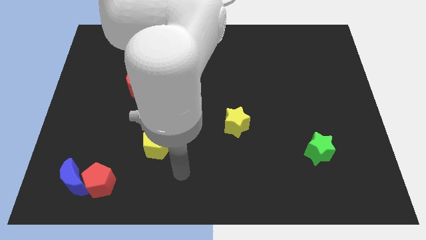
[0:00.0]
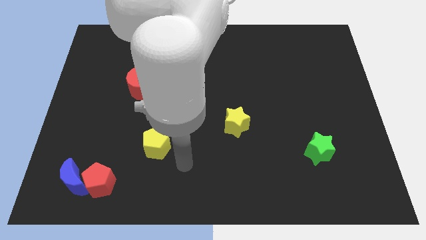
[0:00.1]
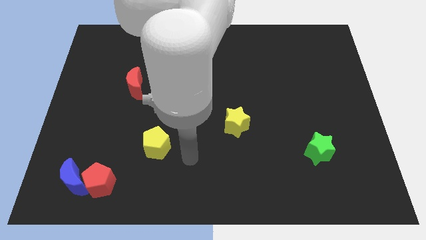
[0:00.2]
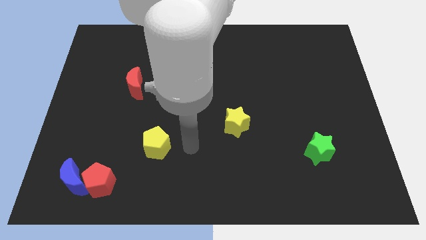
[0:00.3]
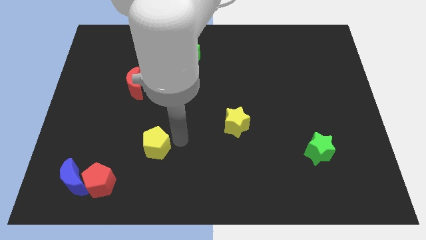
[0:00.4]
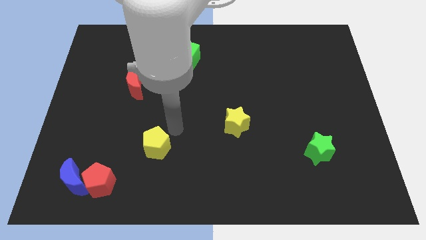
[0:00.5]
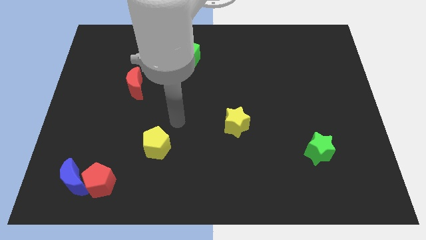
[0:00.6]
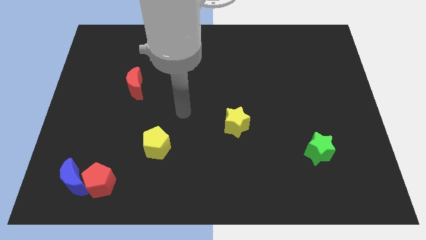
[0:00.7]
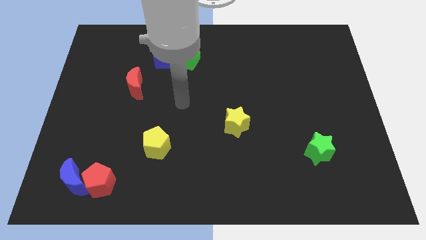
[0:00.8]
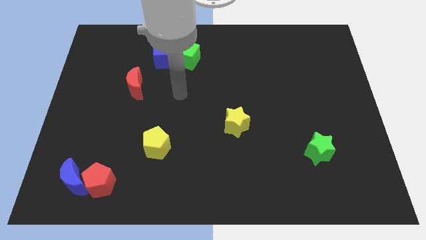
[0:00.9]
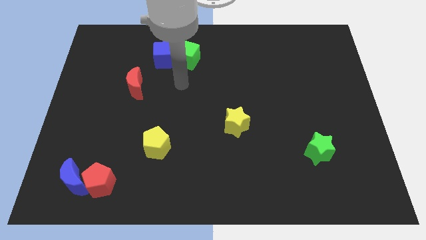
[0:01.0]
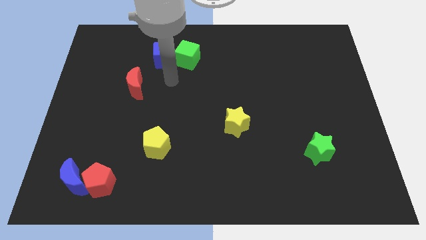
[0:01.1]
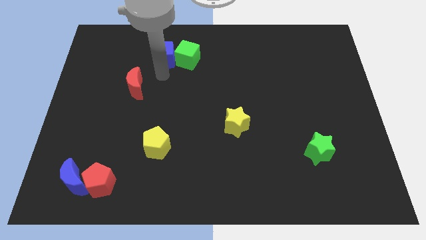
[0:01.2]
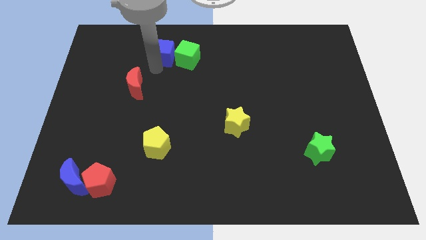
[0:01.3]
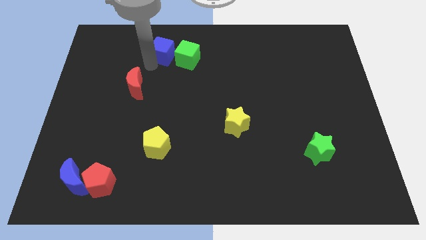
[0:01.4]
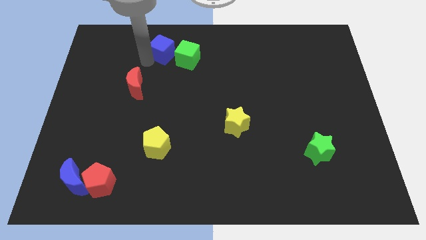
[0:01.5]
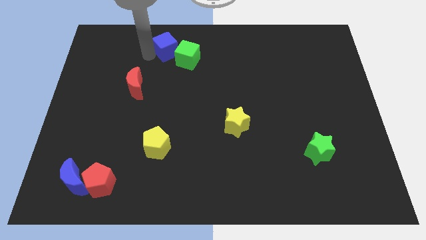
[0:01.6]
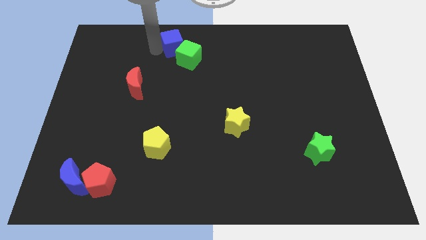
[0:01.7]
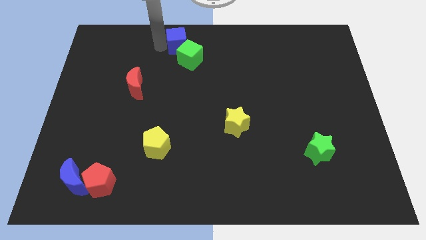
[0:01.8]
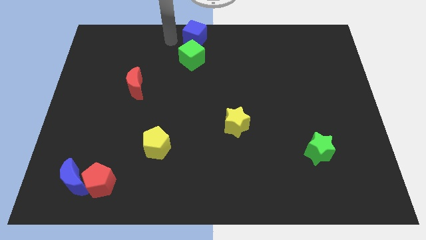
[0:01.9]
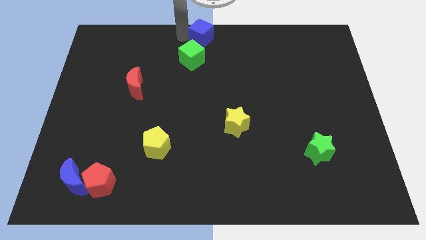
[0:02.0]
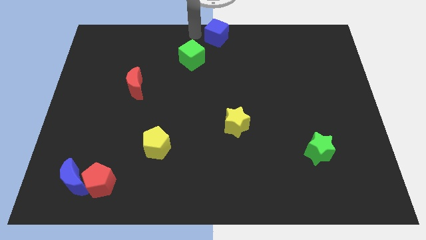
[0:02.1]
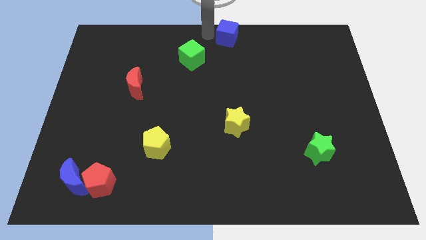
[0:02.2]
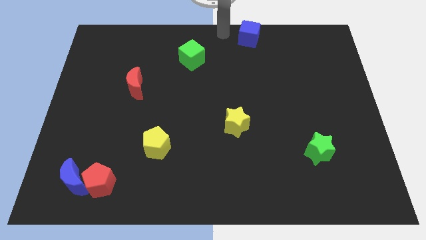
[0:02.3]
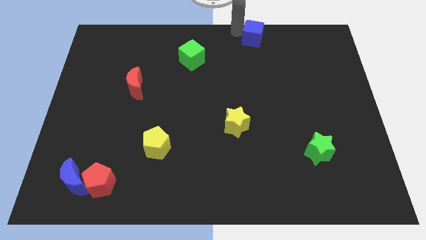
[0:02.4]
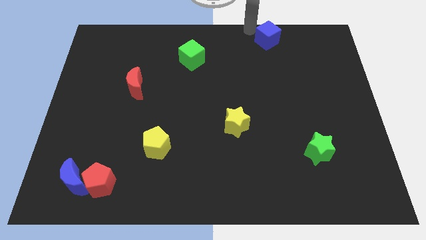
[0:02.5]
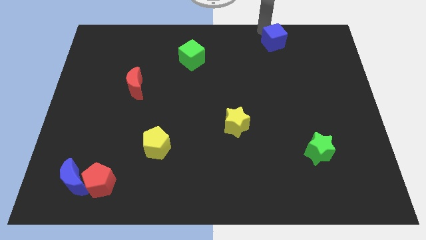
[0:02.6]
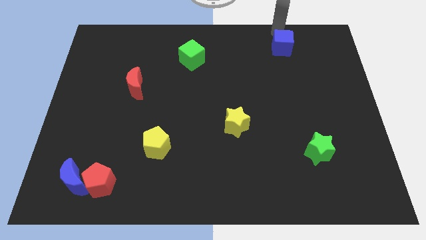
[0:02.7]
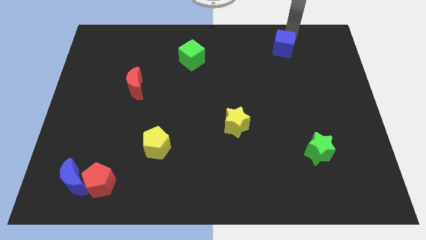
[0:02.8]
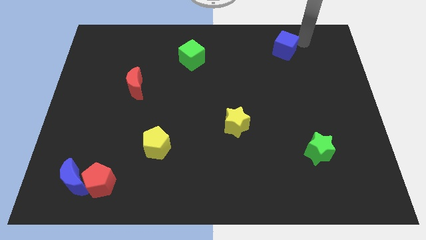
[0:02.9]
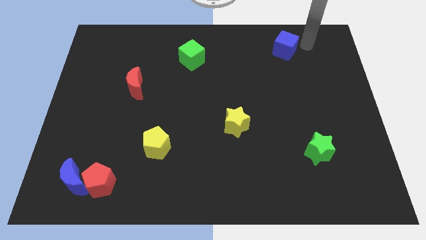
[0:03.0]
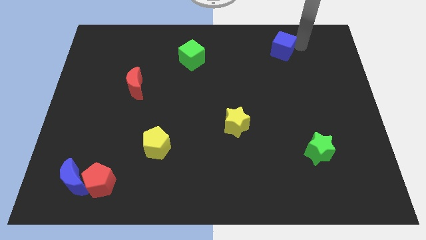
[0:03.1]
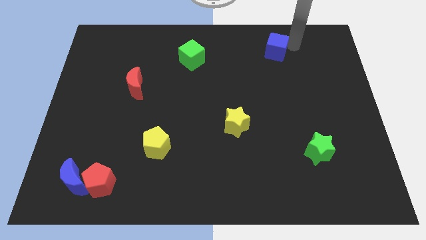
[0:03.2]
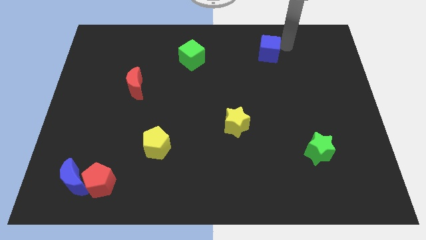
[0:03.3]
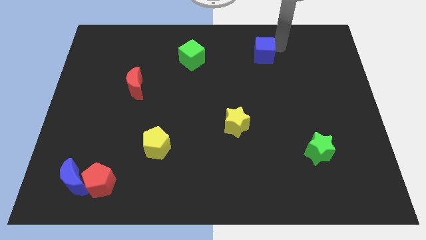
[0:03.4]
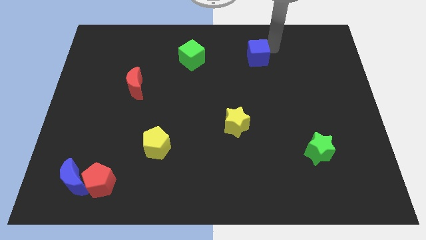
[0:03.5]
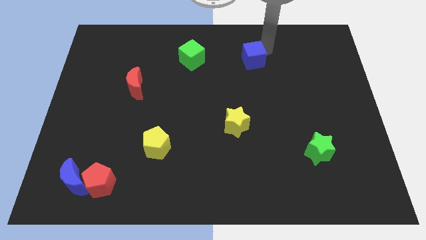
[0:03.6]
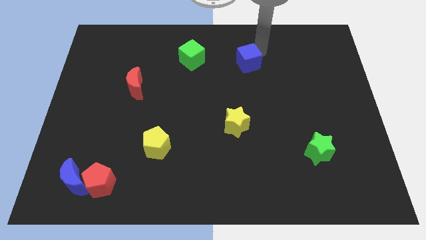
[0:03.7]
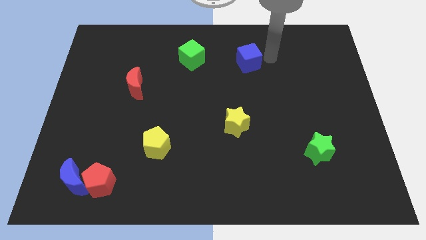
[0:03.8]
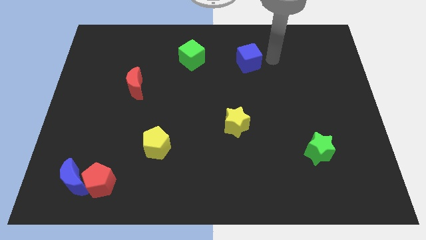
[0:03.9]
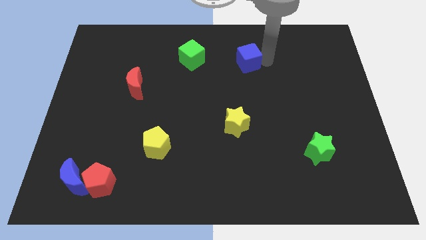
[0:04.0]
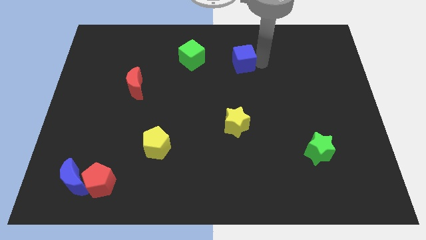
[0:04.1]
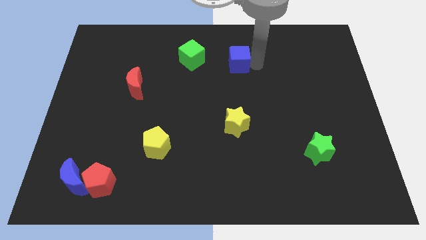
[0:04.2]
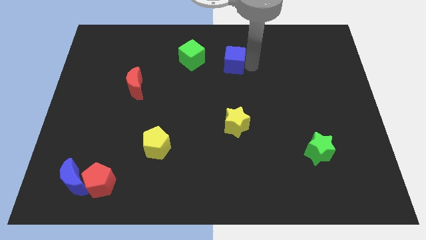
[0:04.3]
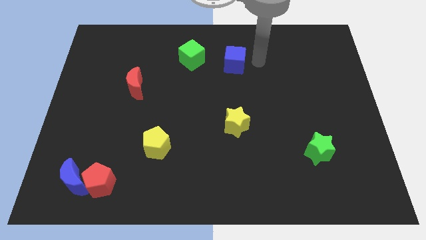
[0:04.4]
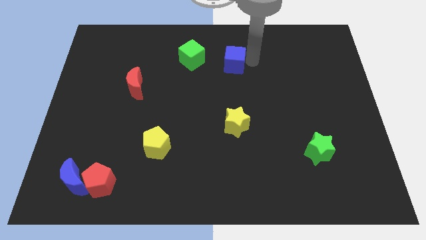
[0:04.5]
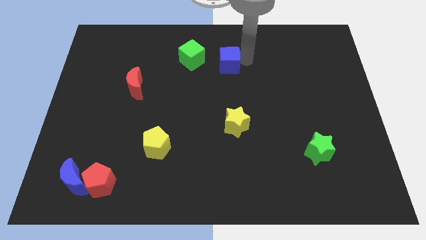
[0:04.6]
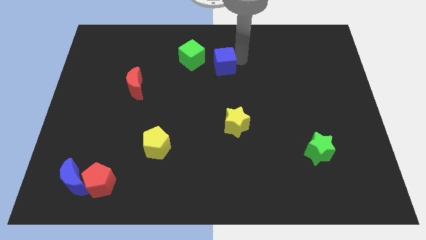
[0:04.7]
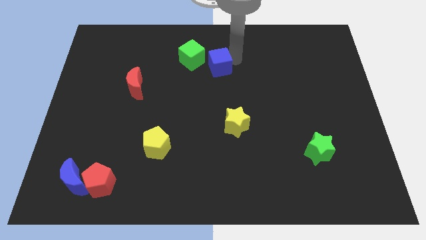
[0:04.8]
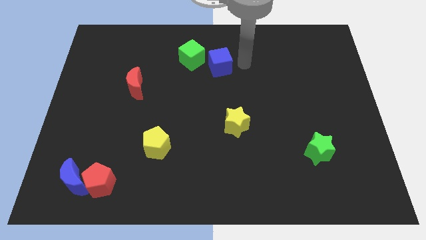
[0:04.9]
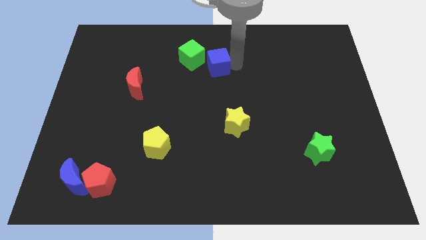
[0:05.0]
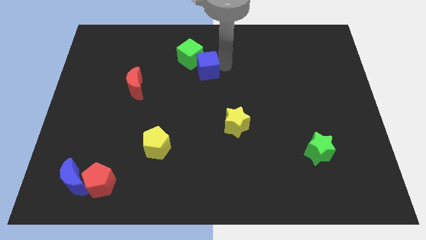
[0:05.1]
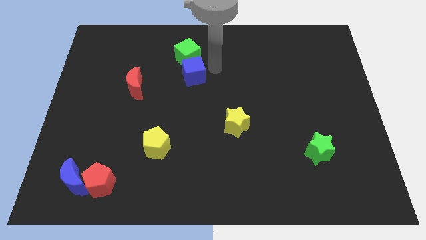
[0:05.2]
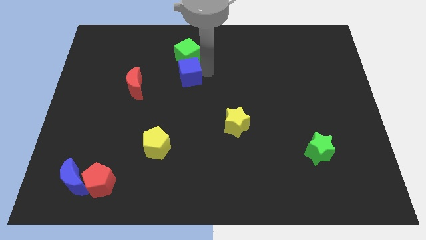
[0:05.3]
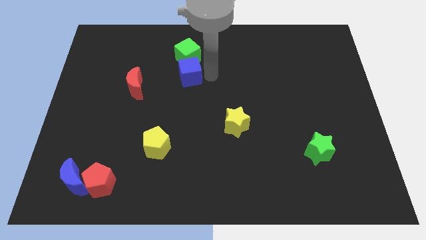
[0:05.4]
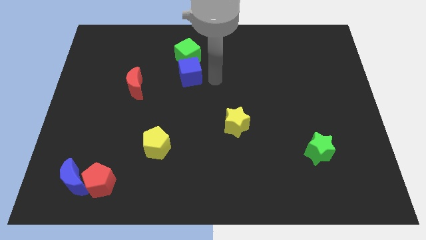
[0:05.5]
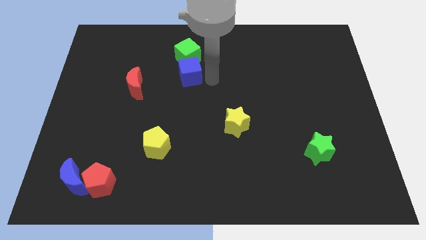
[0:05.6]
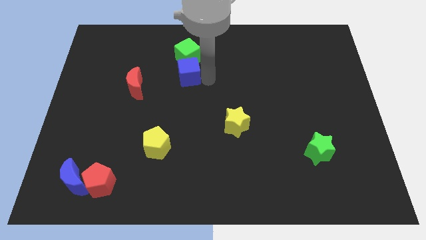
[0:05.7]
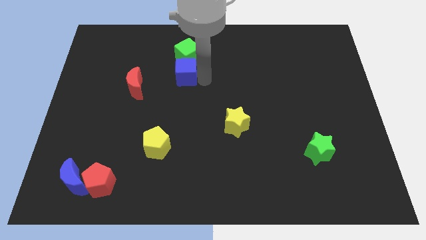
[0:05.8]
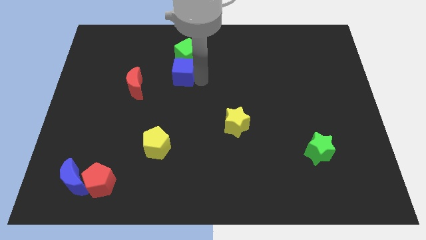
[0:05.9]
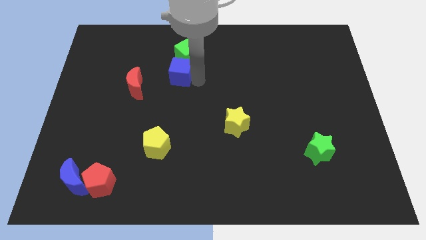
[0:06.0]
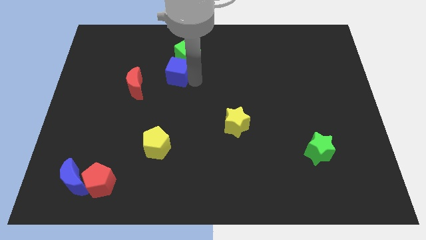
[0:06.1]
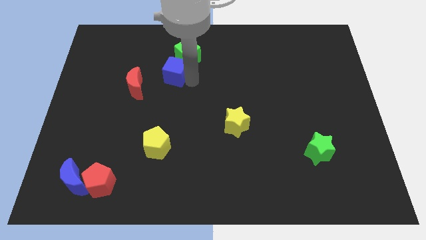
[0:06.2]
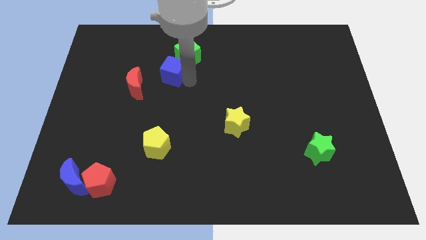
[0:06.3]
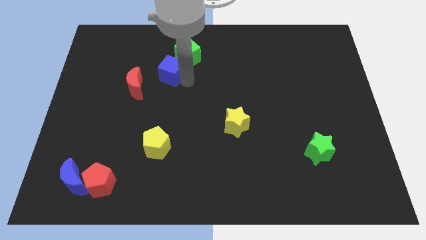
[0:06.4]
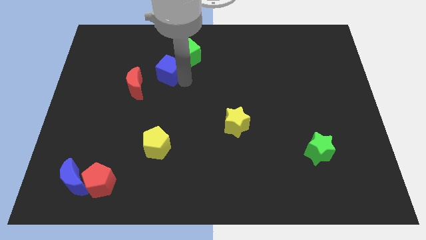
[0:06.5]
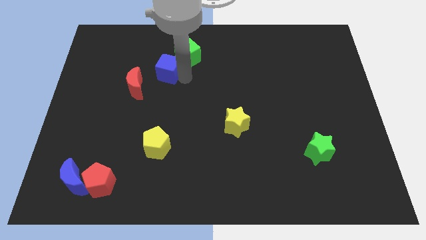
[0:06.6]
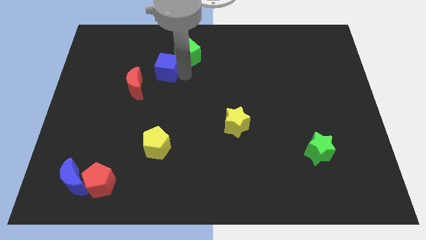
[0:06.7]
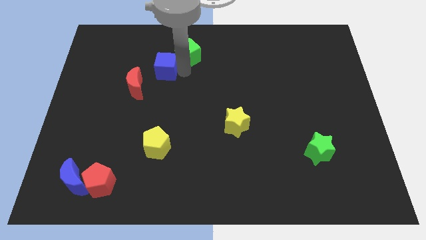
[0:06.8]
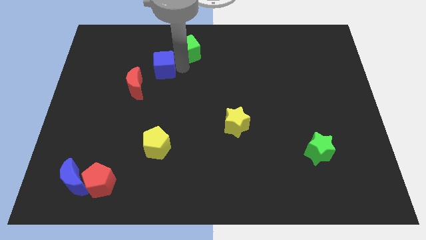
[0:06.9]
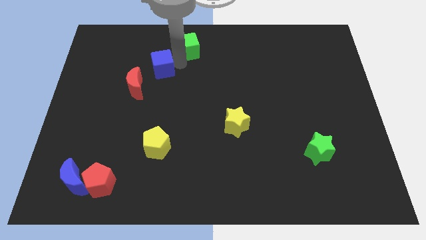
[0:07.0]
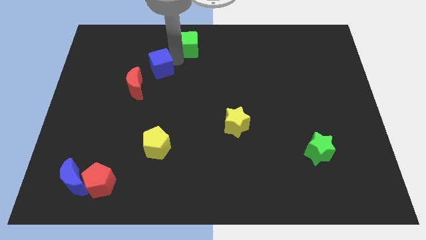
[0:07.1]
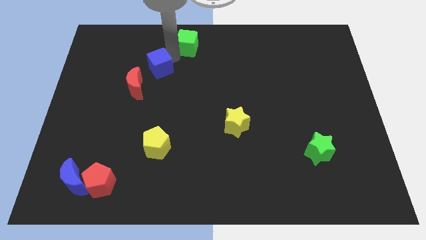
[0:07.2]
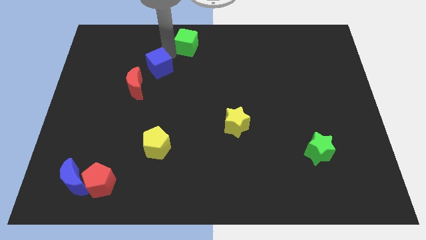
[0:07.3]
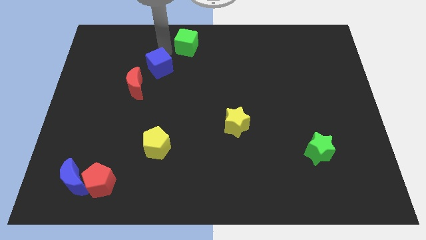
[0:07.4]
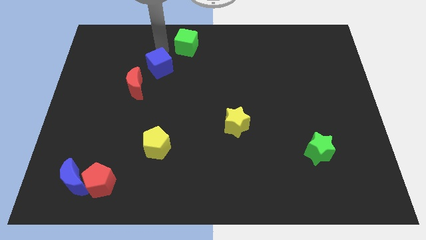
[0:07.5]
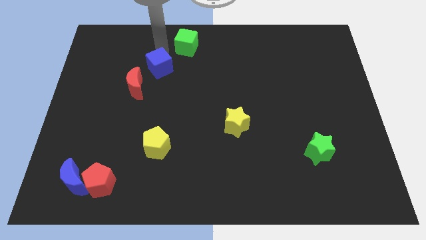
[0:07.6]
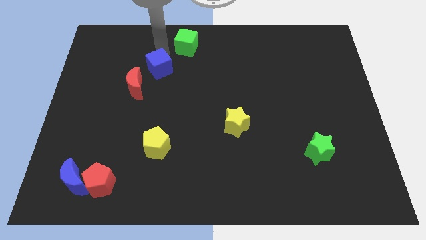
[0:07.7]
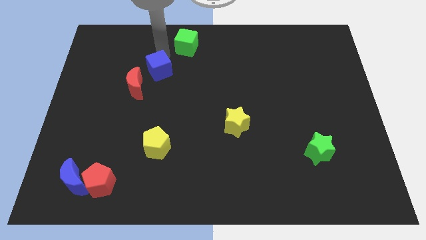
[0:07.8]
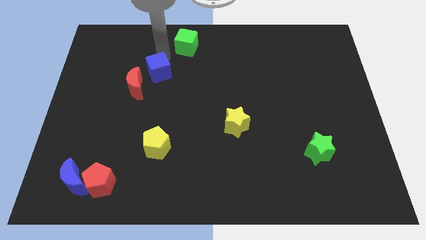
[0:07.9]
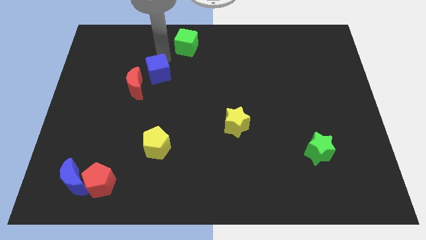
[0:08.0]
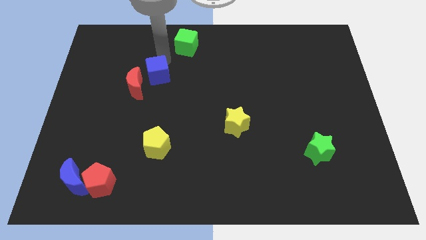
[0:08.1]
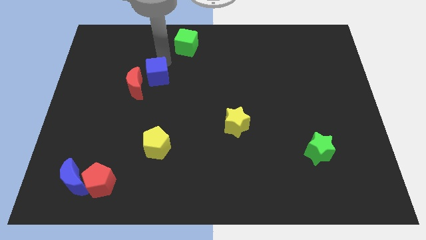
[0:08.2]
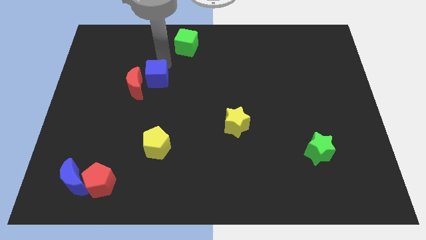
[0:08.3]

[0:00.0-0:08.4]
slide the blue cube downwards slightly
